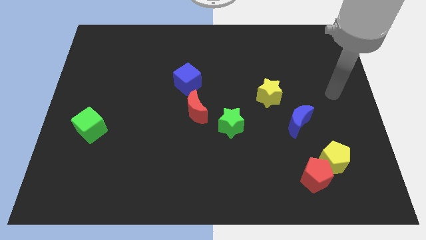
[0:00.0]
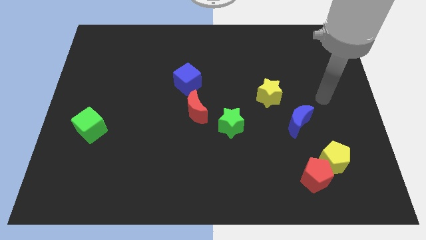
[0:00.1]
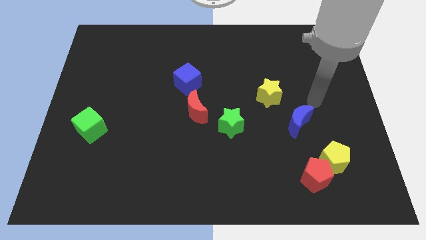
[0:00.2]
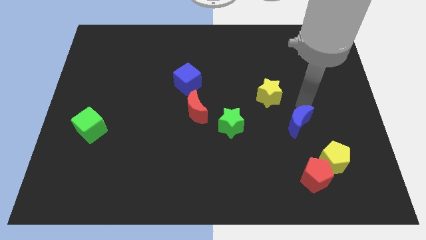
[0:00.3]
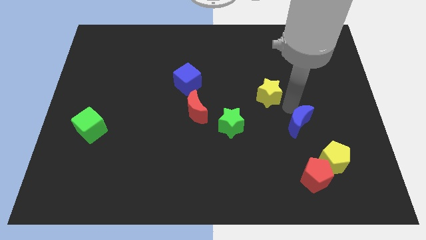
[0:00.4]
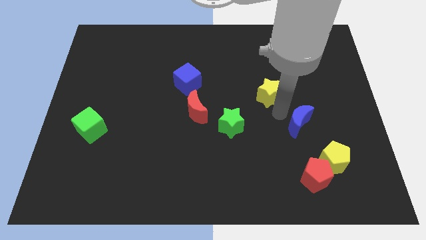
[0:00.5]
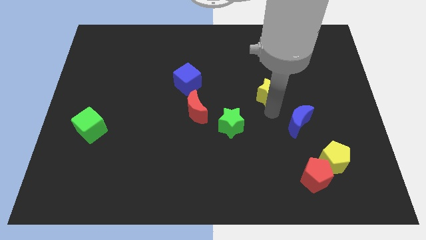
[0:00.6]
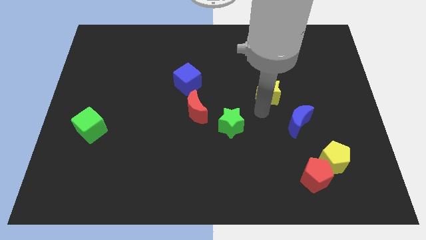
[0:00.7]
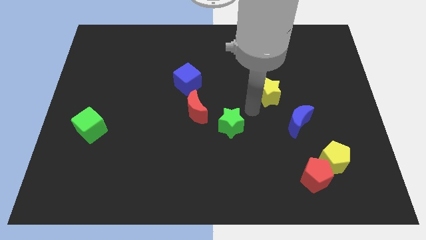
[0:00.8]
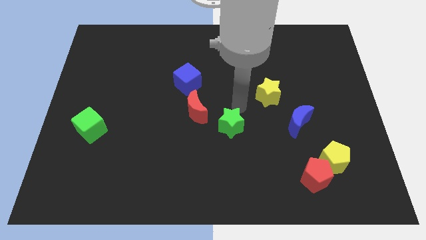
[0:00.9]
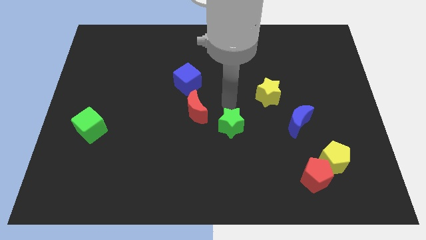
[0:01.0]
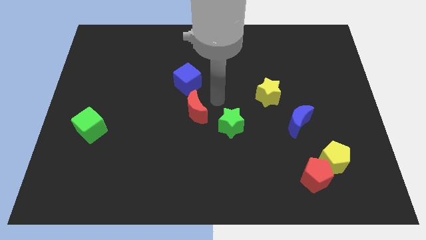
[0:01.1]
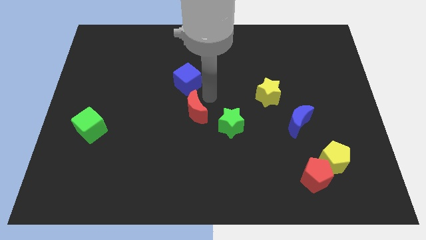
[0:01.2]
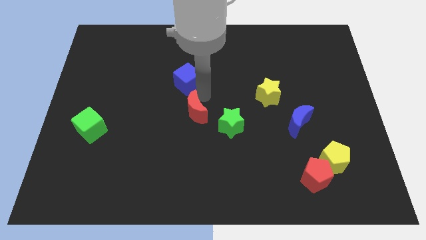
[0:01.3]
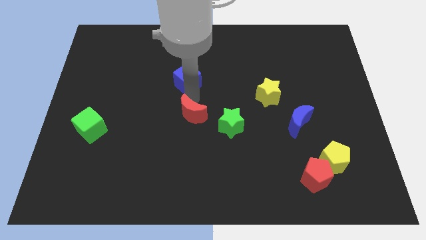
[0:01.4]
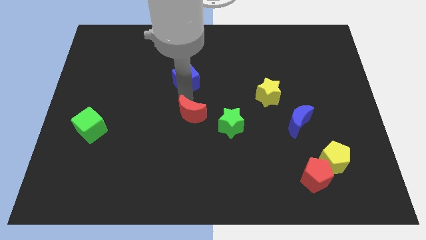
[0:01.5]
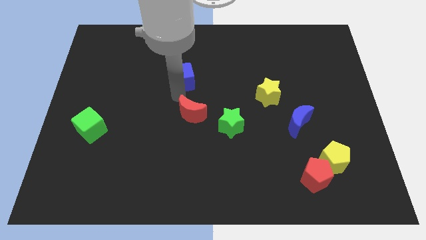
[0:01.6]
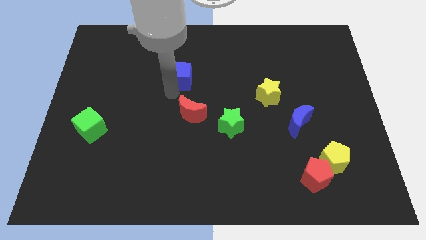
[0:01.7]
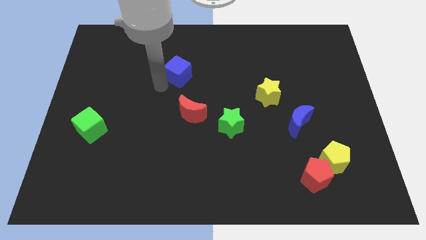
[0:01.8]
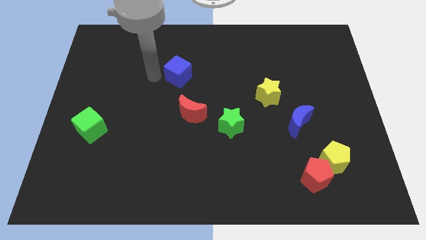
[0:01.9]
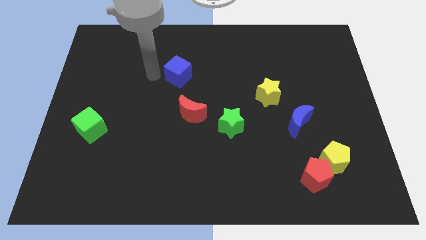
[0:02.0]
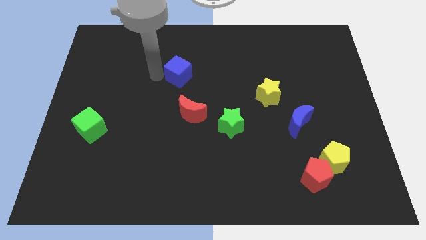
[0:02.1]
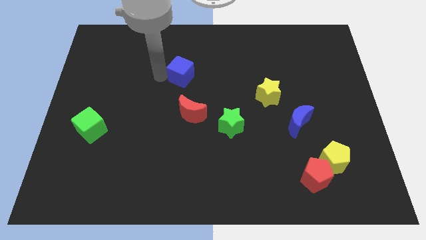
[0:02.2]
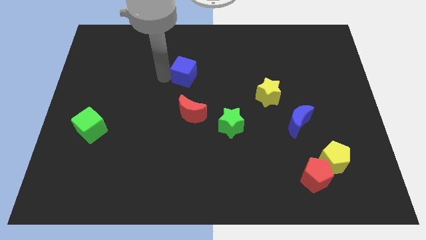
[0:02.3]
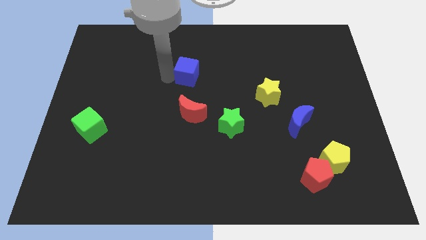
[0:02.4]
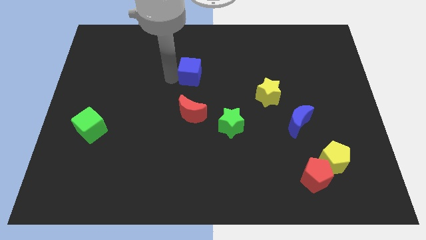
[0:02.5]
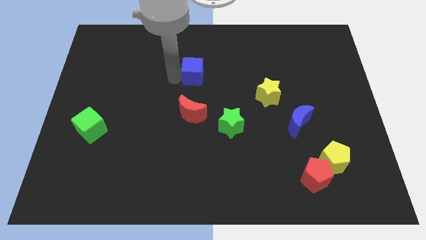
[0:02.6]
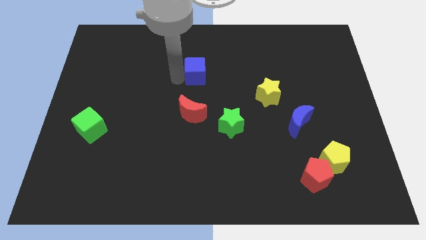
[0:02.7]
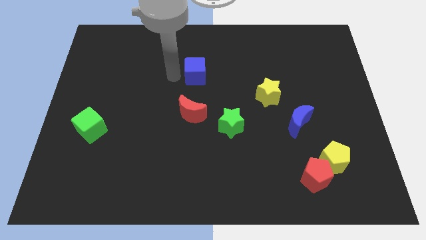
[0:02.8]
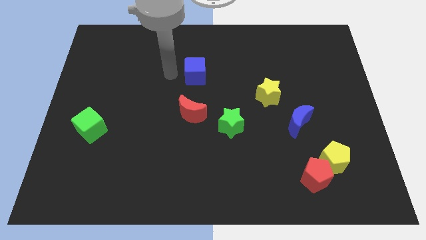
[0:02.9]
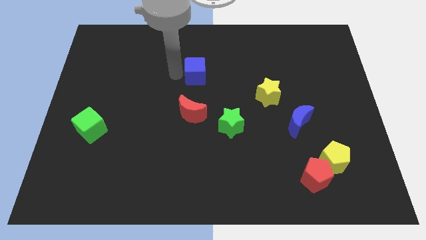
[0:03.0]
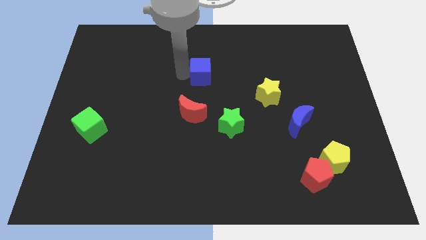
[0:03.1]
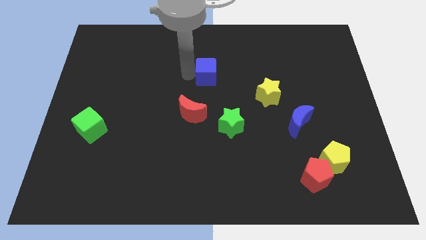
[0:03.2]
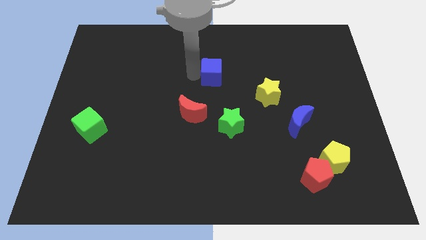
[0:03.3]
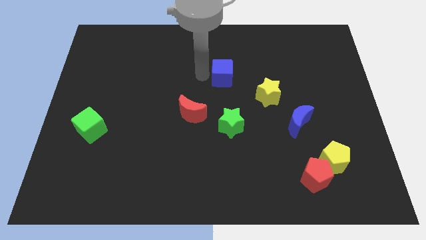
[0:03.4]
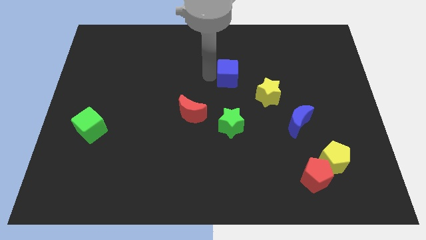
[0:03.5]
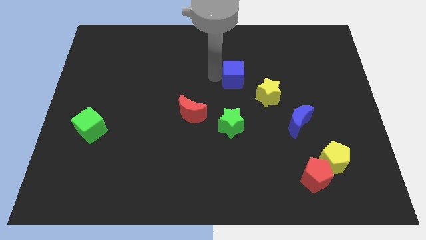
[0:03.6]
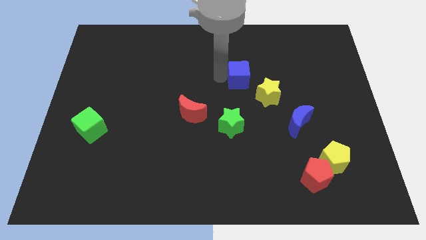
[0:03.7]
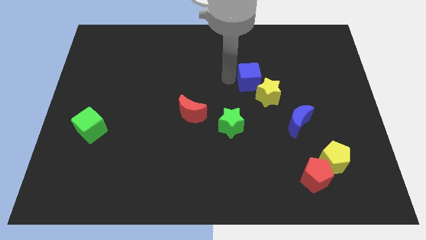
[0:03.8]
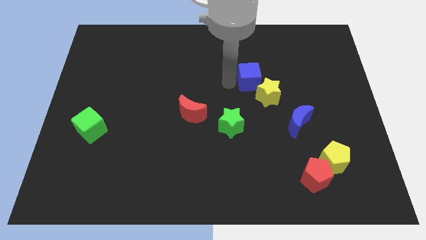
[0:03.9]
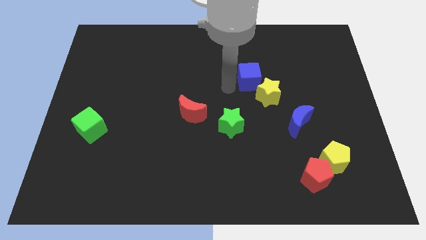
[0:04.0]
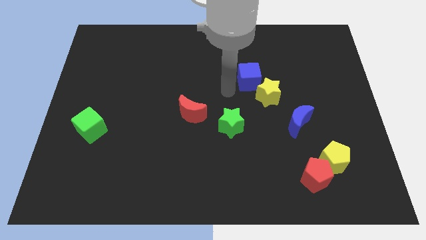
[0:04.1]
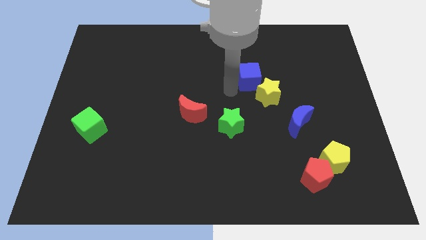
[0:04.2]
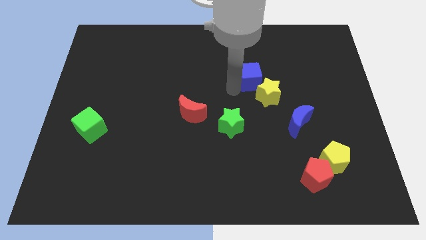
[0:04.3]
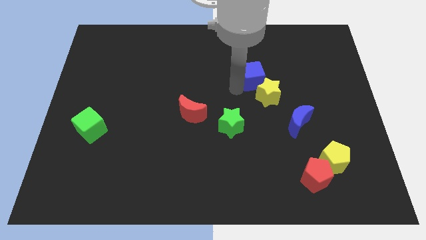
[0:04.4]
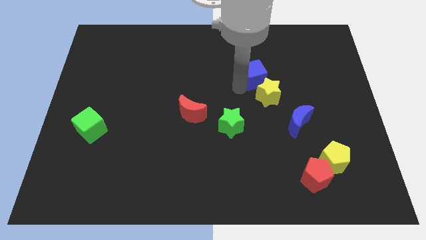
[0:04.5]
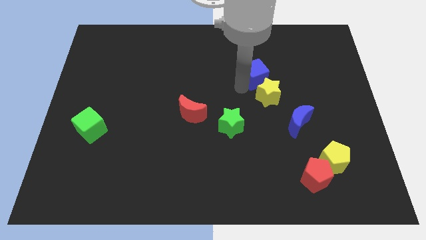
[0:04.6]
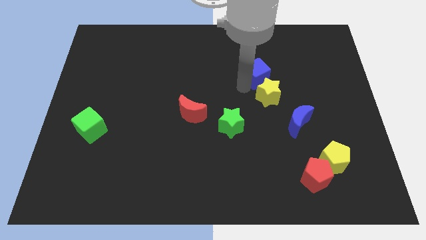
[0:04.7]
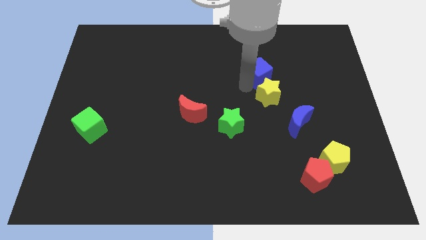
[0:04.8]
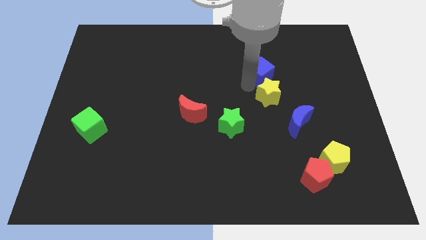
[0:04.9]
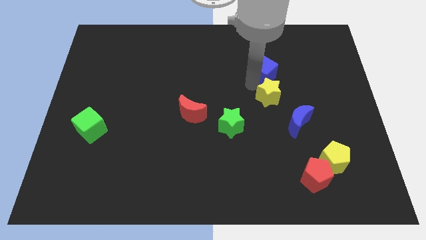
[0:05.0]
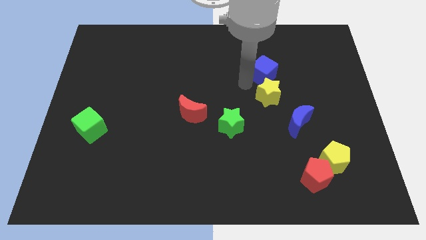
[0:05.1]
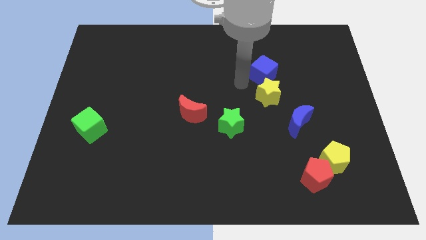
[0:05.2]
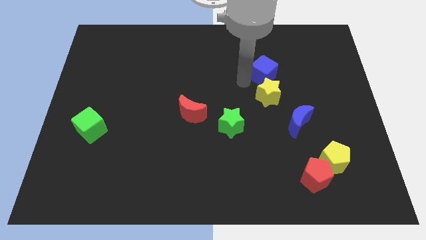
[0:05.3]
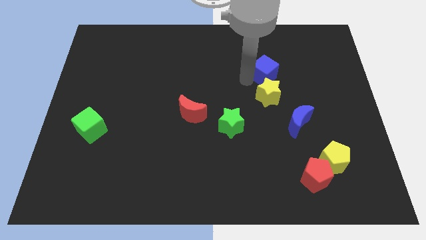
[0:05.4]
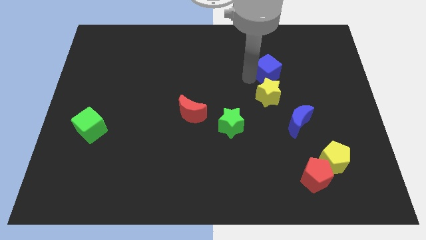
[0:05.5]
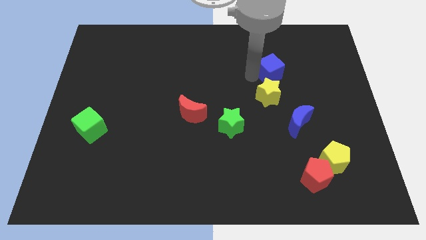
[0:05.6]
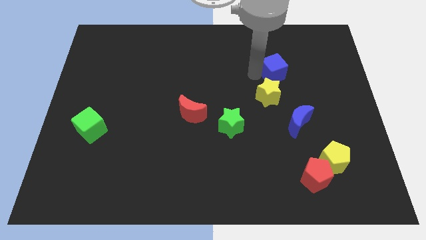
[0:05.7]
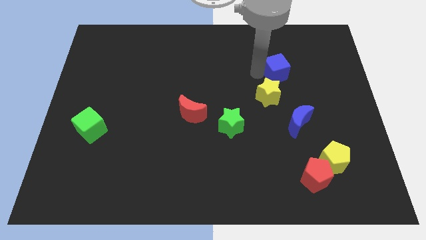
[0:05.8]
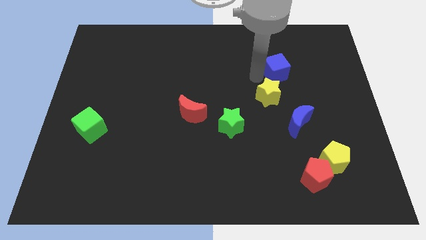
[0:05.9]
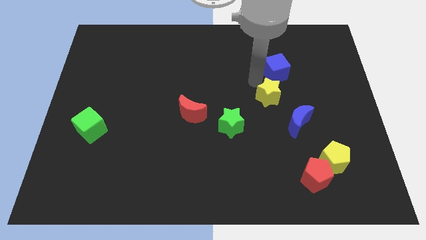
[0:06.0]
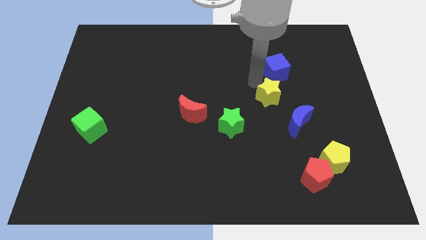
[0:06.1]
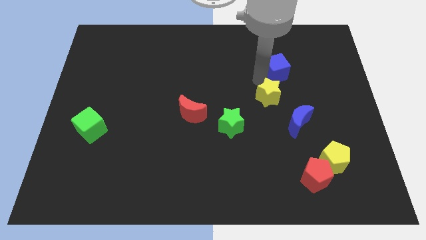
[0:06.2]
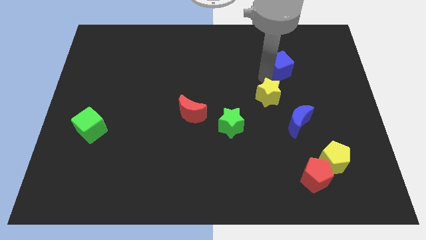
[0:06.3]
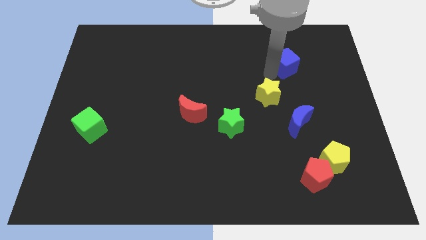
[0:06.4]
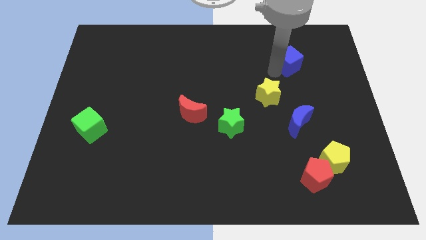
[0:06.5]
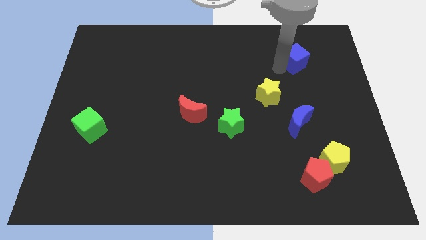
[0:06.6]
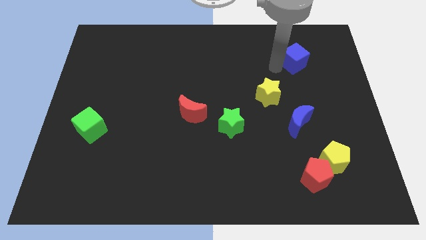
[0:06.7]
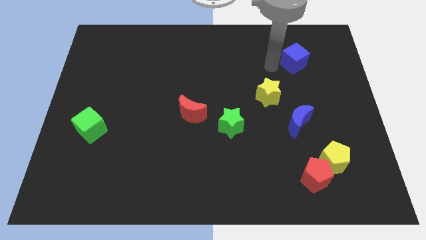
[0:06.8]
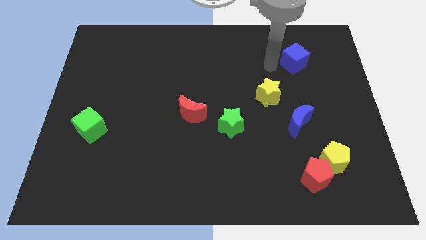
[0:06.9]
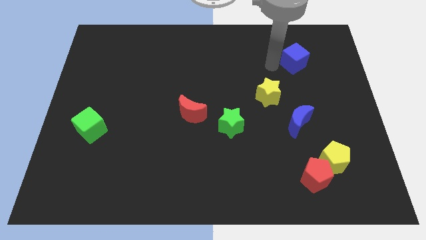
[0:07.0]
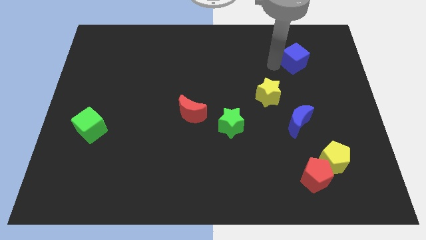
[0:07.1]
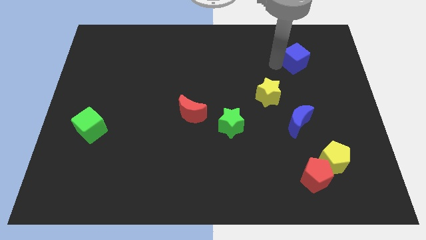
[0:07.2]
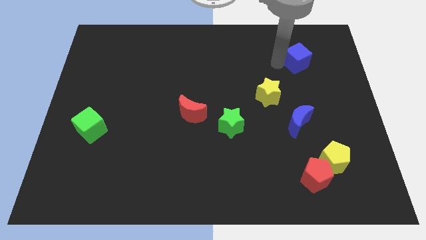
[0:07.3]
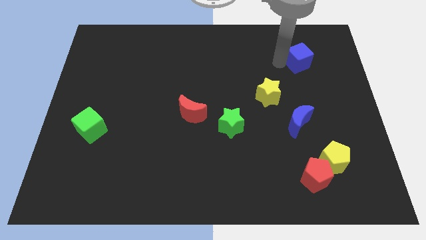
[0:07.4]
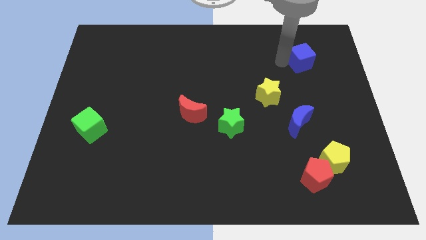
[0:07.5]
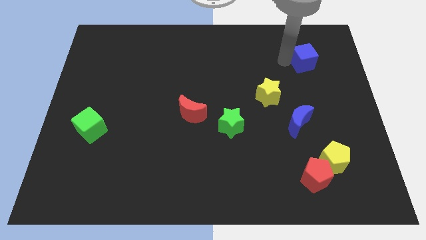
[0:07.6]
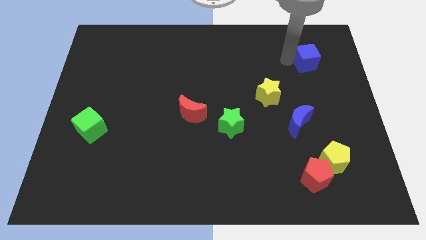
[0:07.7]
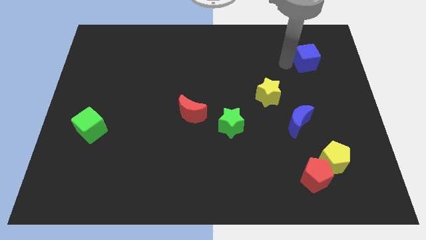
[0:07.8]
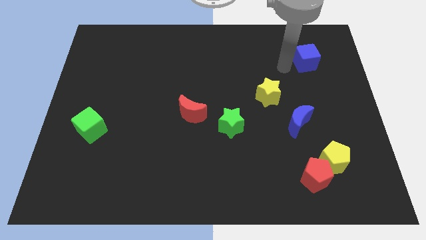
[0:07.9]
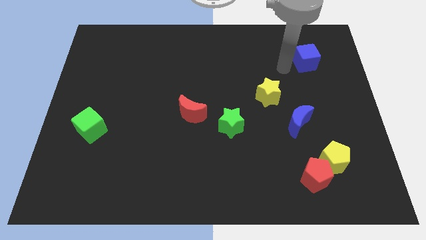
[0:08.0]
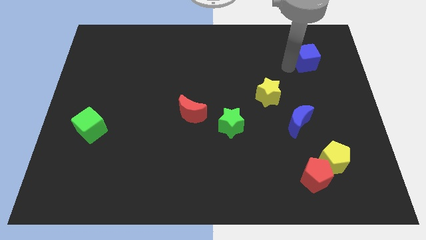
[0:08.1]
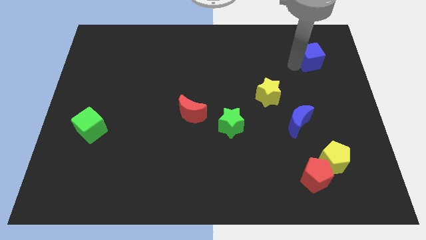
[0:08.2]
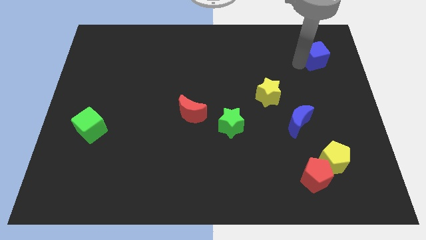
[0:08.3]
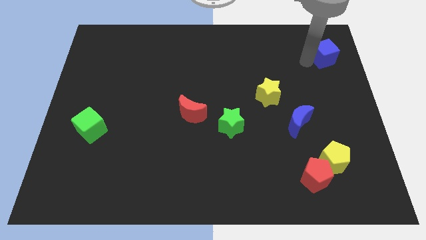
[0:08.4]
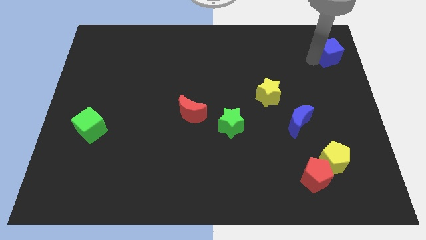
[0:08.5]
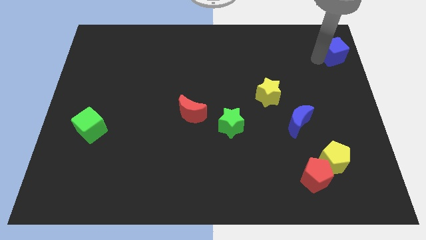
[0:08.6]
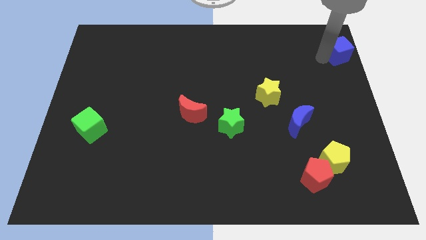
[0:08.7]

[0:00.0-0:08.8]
put the blue cube to the top right of the board
